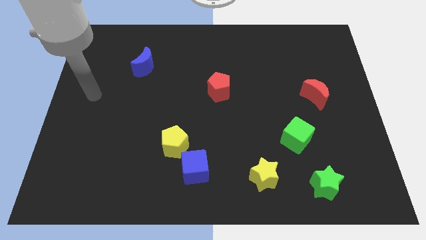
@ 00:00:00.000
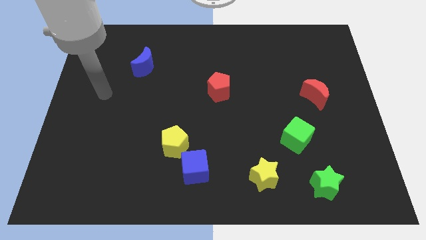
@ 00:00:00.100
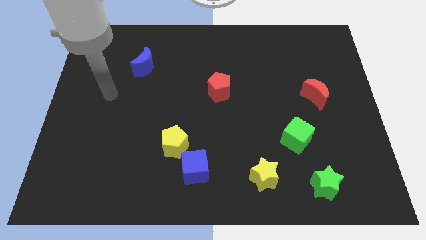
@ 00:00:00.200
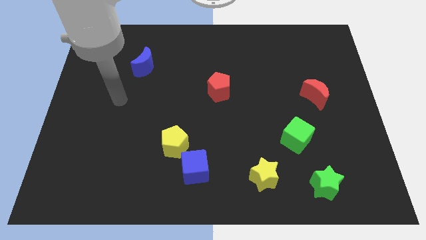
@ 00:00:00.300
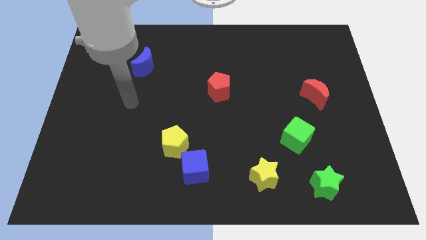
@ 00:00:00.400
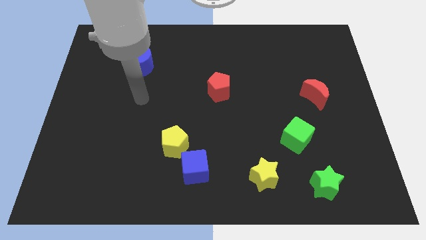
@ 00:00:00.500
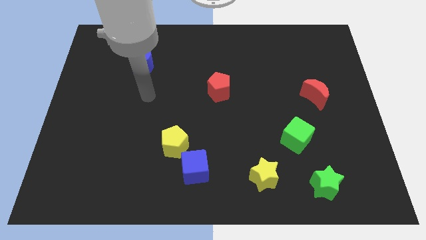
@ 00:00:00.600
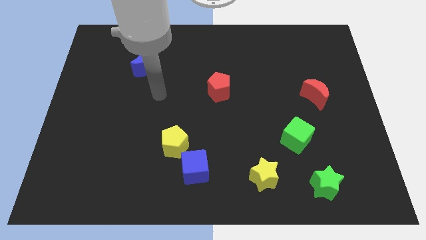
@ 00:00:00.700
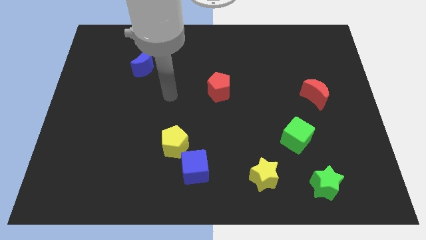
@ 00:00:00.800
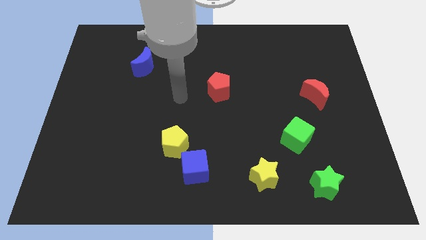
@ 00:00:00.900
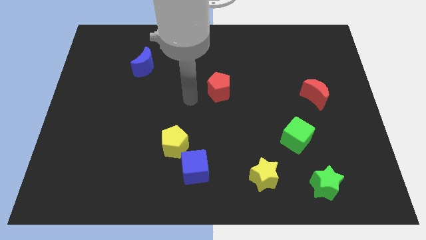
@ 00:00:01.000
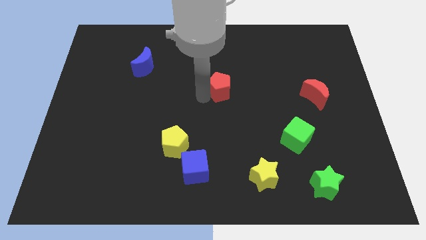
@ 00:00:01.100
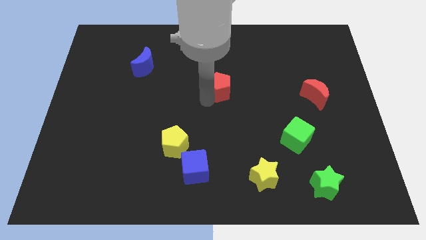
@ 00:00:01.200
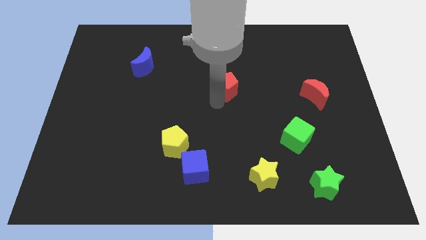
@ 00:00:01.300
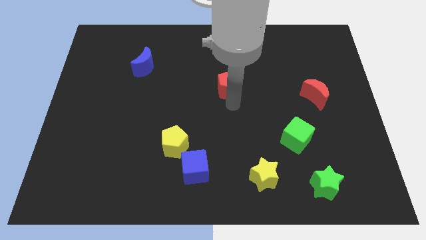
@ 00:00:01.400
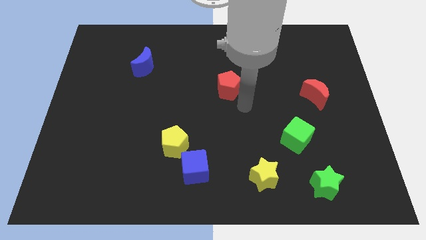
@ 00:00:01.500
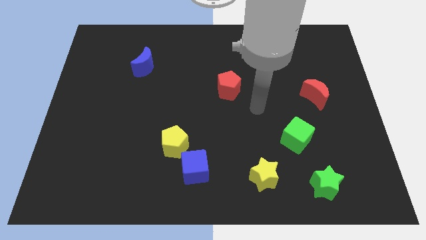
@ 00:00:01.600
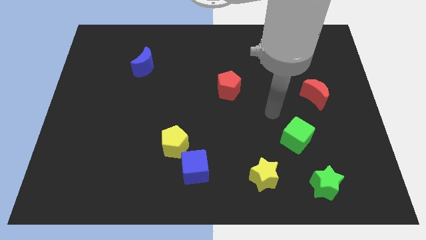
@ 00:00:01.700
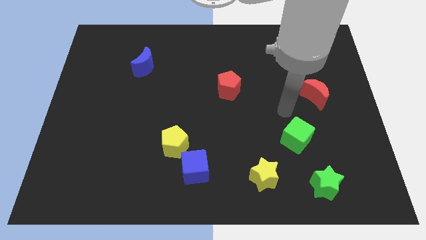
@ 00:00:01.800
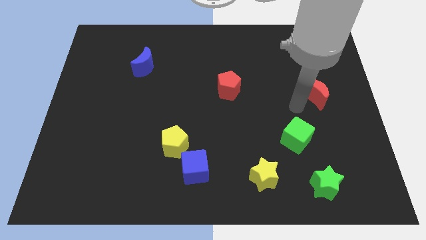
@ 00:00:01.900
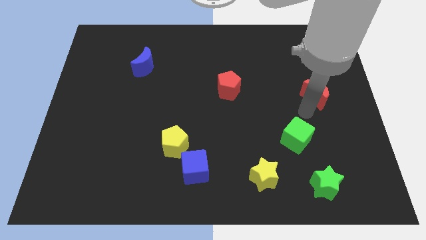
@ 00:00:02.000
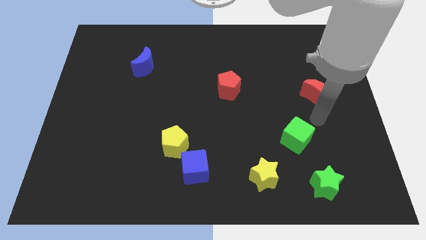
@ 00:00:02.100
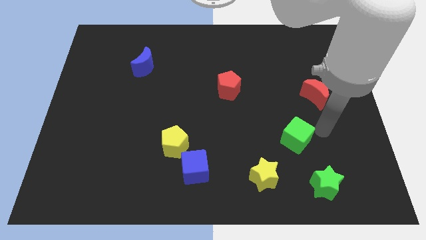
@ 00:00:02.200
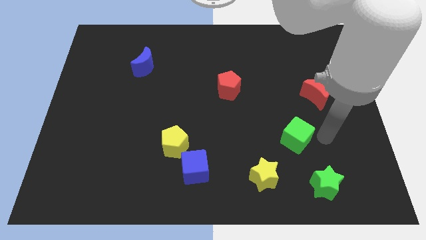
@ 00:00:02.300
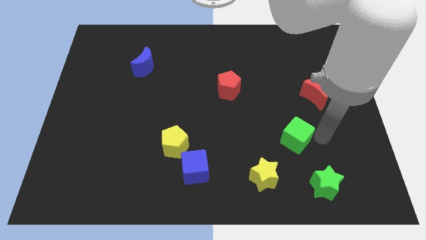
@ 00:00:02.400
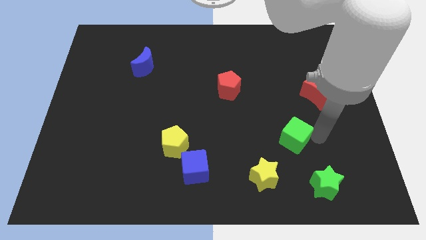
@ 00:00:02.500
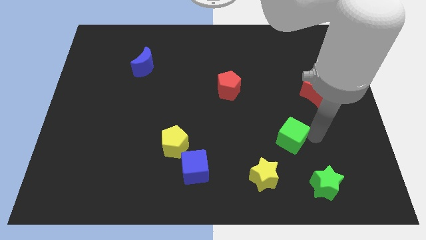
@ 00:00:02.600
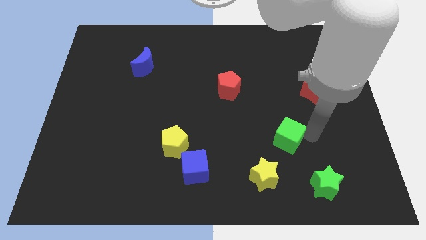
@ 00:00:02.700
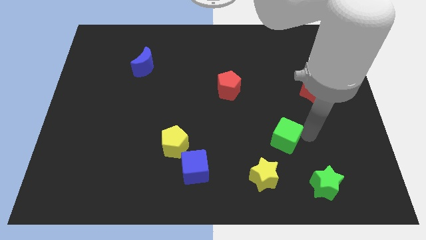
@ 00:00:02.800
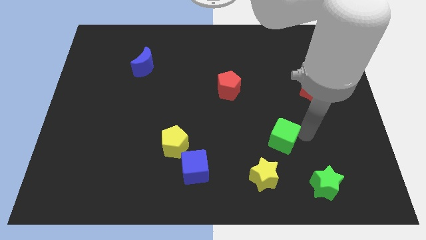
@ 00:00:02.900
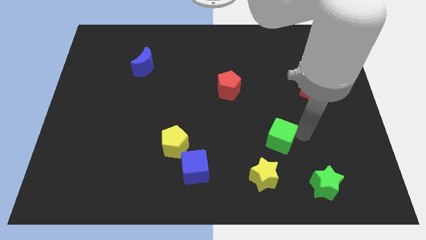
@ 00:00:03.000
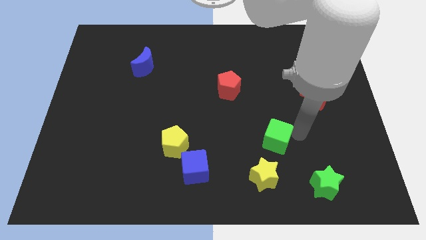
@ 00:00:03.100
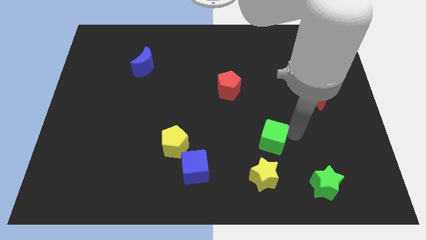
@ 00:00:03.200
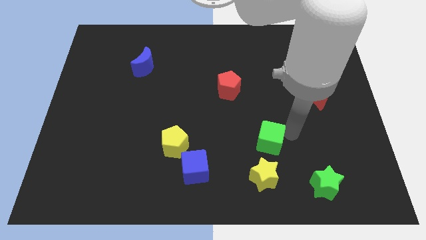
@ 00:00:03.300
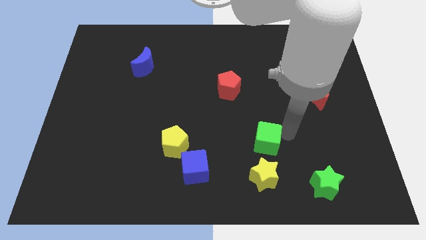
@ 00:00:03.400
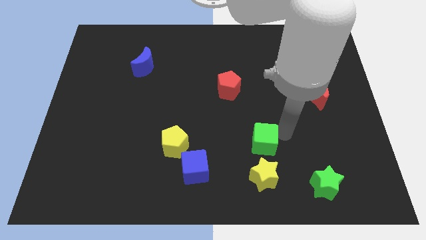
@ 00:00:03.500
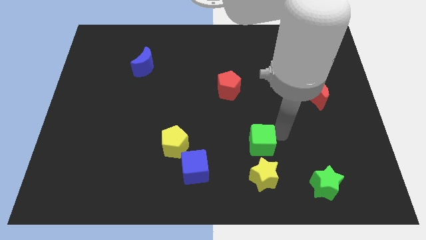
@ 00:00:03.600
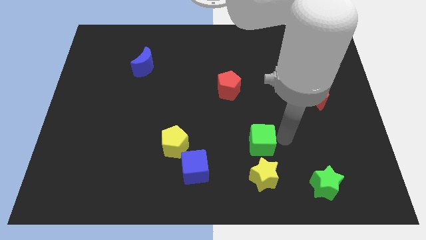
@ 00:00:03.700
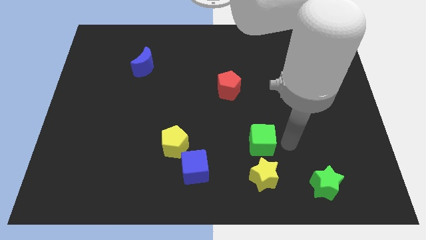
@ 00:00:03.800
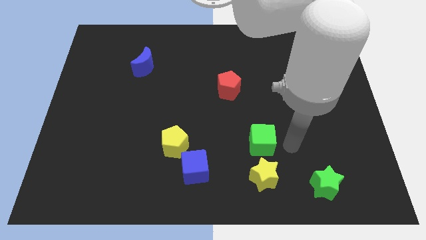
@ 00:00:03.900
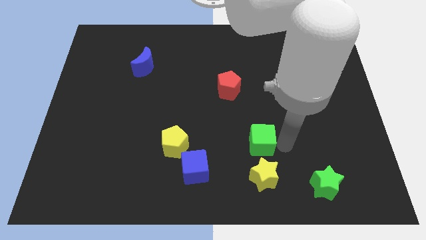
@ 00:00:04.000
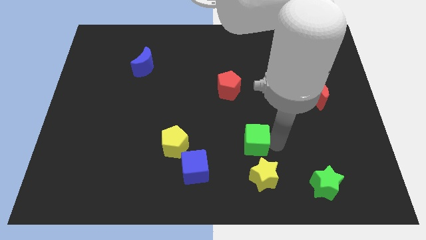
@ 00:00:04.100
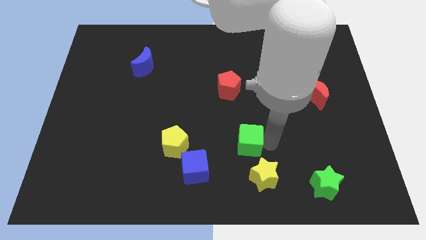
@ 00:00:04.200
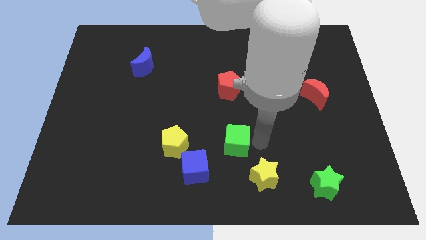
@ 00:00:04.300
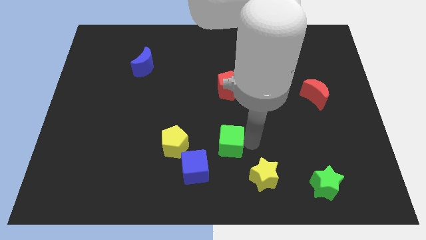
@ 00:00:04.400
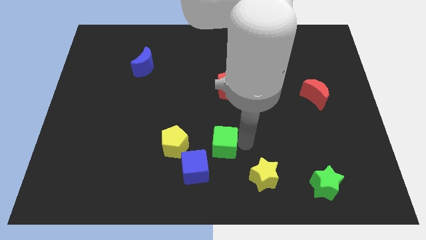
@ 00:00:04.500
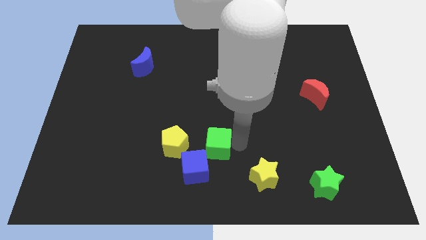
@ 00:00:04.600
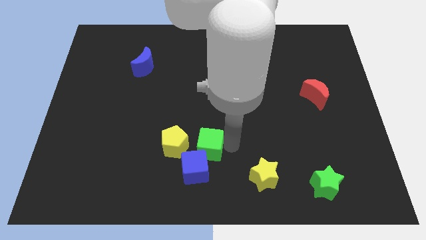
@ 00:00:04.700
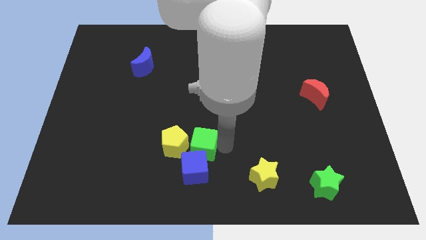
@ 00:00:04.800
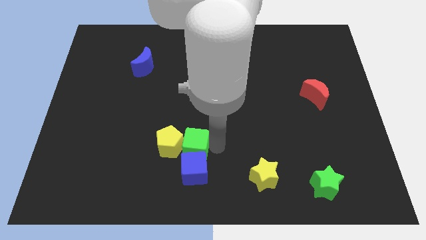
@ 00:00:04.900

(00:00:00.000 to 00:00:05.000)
push the green cube next to the yellow pentagon

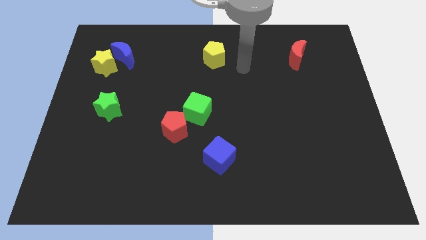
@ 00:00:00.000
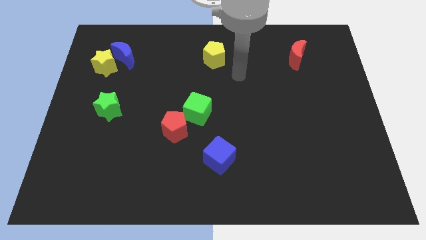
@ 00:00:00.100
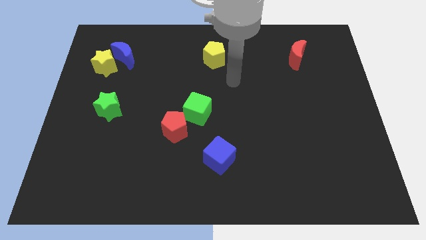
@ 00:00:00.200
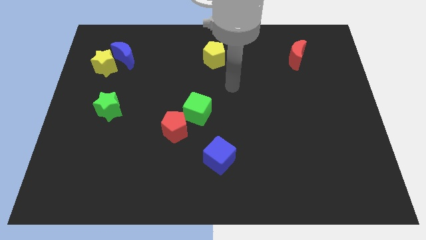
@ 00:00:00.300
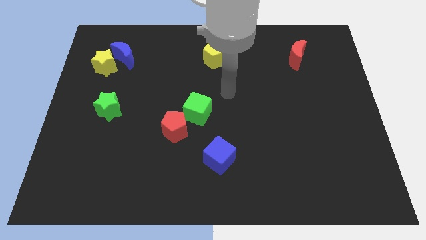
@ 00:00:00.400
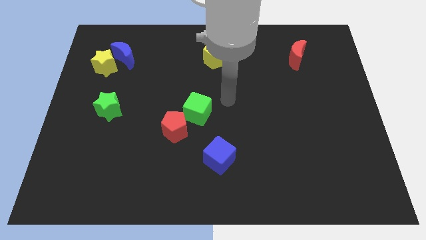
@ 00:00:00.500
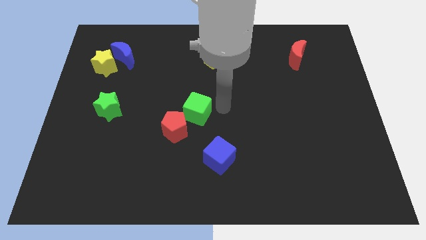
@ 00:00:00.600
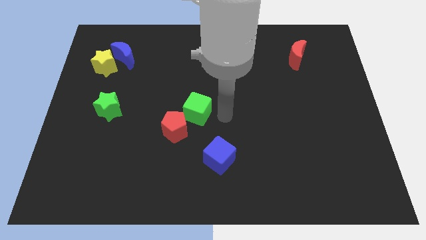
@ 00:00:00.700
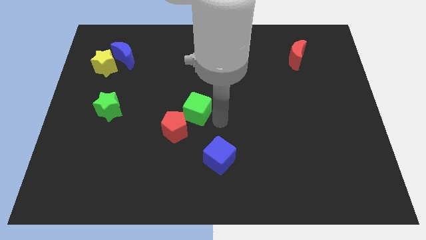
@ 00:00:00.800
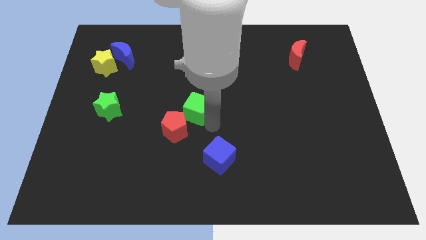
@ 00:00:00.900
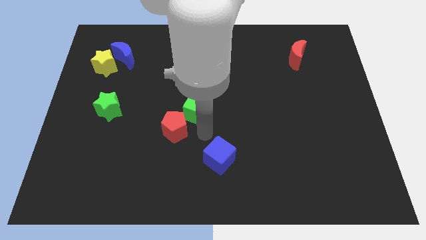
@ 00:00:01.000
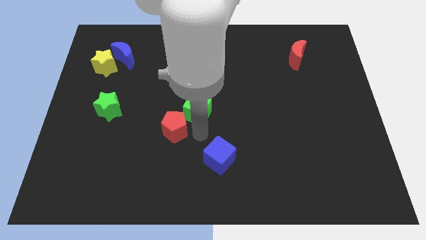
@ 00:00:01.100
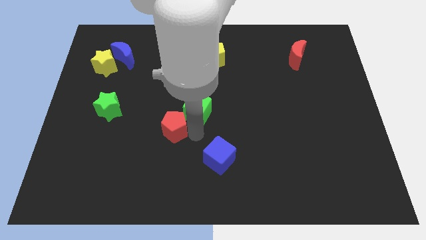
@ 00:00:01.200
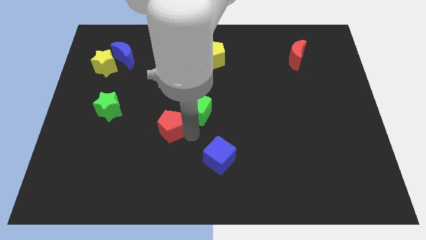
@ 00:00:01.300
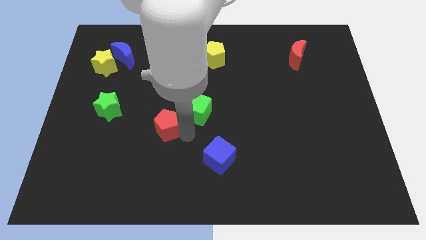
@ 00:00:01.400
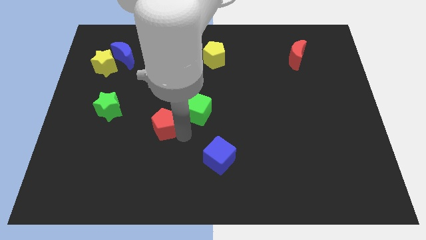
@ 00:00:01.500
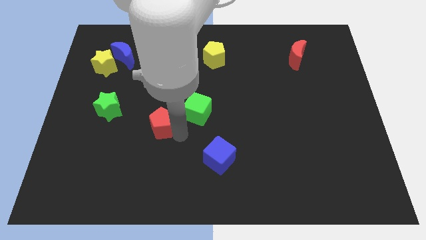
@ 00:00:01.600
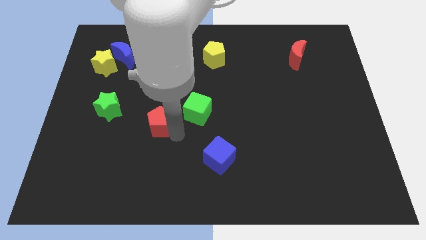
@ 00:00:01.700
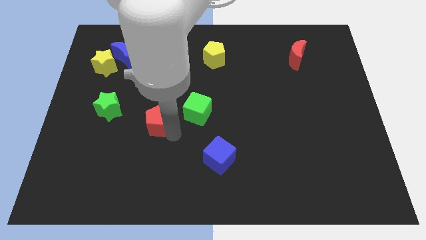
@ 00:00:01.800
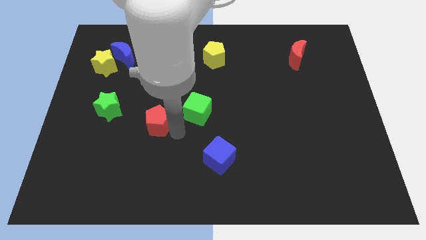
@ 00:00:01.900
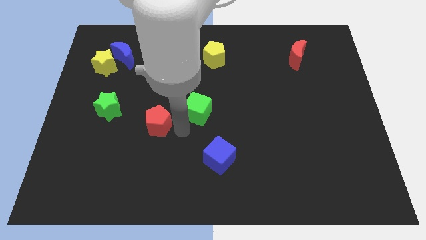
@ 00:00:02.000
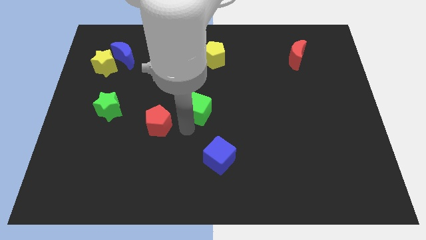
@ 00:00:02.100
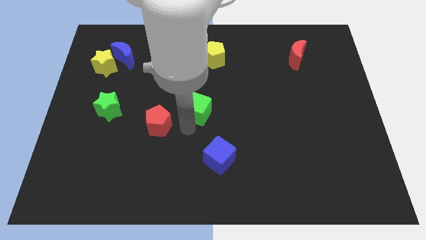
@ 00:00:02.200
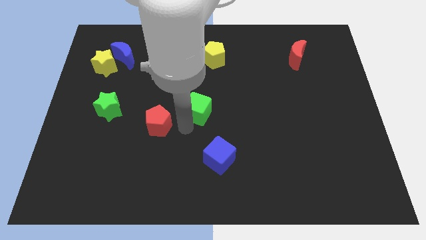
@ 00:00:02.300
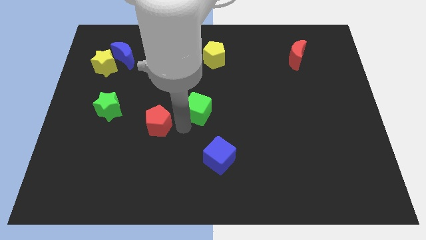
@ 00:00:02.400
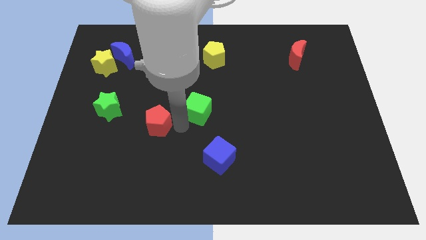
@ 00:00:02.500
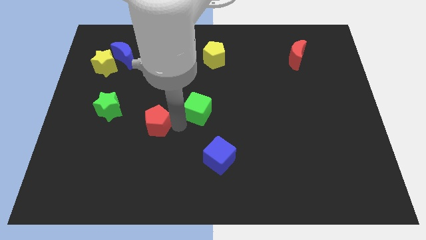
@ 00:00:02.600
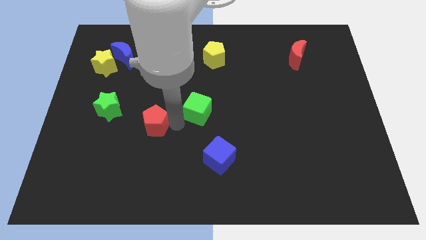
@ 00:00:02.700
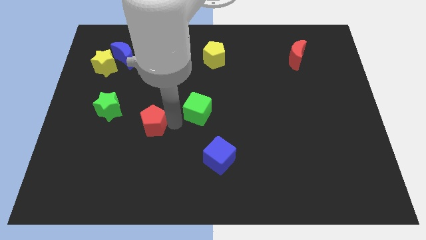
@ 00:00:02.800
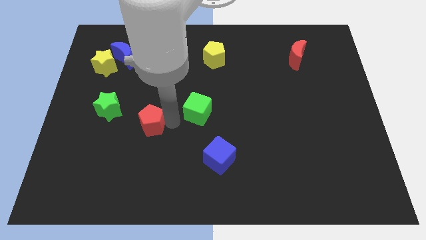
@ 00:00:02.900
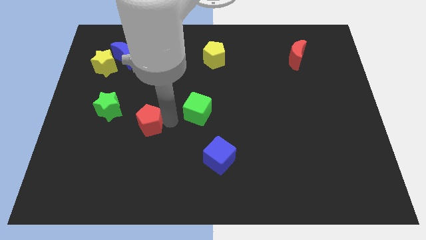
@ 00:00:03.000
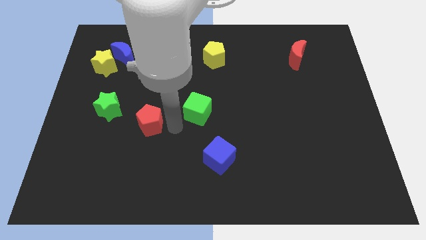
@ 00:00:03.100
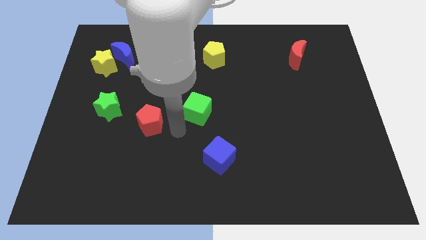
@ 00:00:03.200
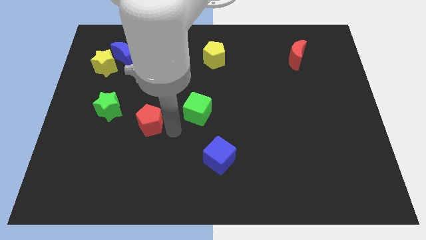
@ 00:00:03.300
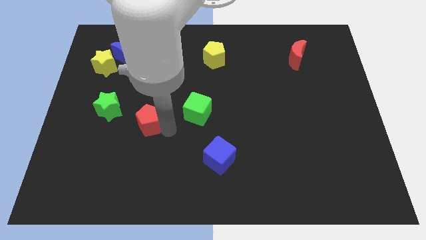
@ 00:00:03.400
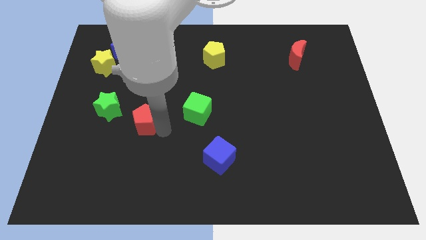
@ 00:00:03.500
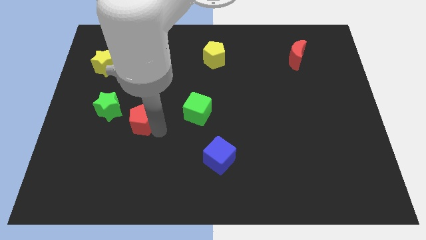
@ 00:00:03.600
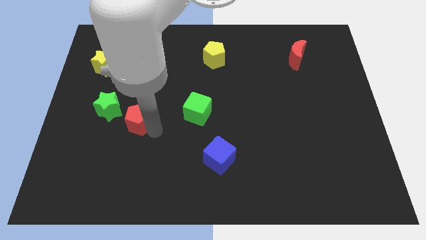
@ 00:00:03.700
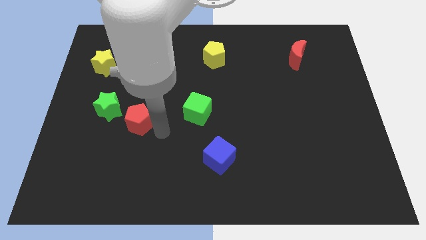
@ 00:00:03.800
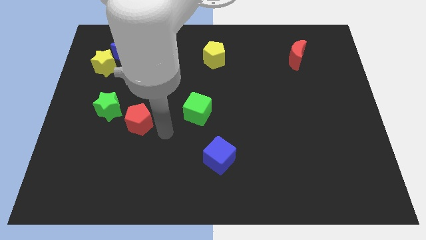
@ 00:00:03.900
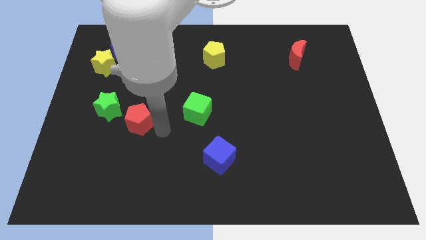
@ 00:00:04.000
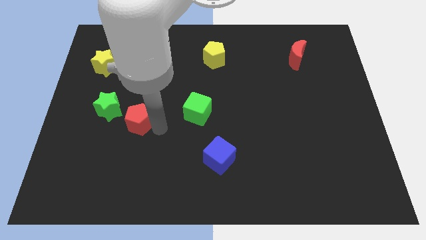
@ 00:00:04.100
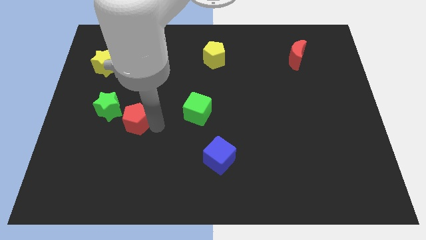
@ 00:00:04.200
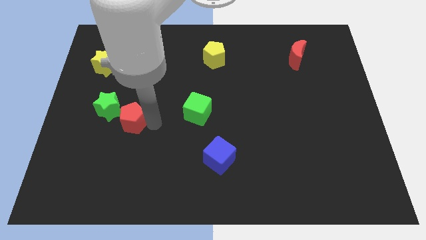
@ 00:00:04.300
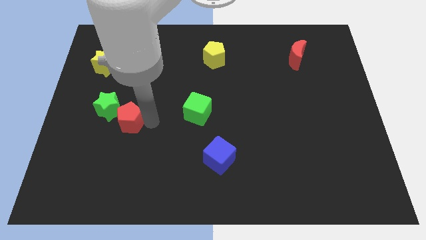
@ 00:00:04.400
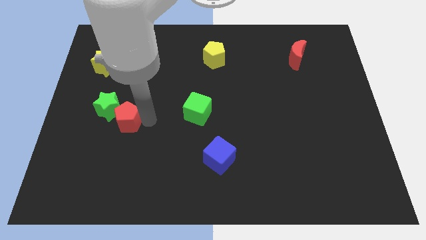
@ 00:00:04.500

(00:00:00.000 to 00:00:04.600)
put the red pentagon towards the green star
